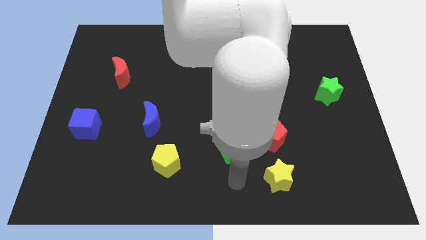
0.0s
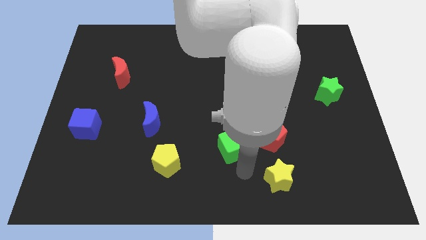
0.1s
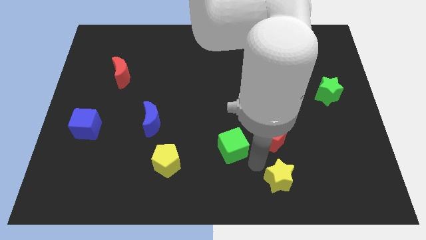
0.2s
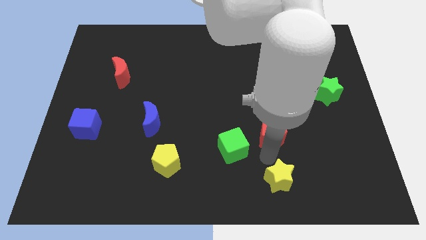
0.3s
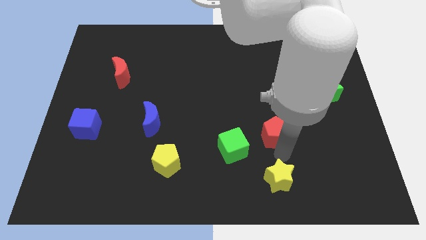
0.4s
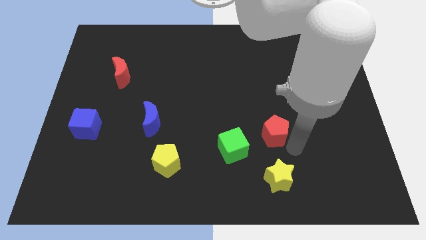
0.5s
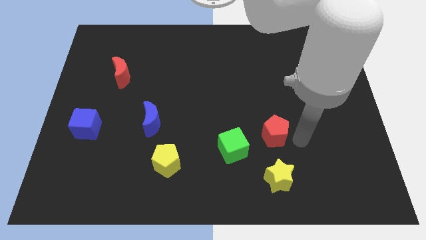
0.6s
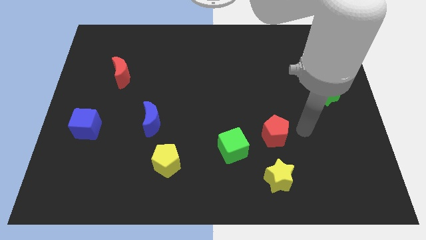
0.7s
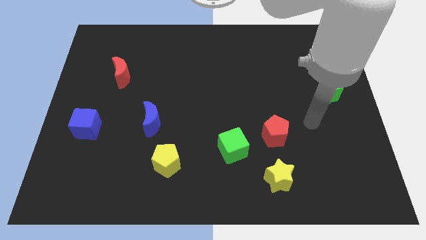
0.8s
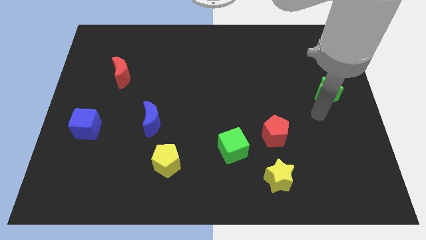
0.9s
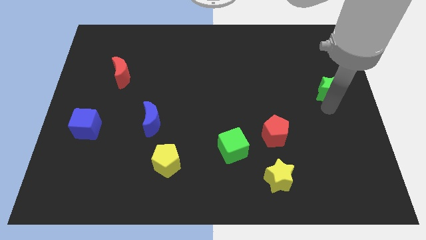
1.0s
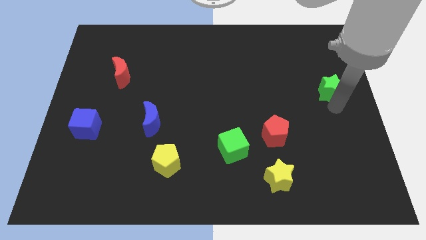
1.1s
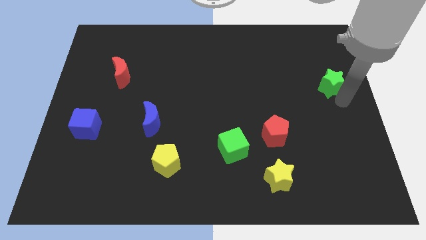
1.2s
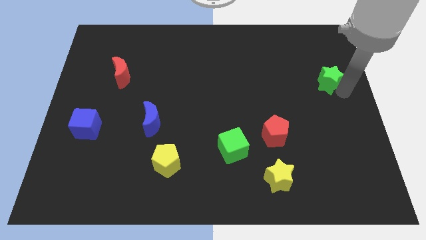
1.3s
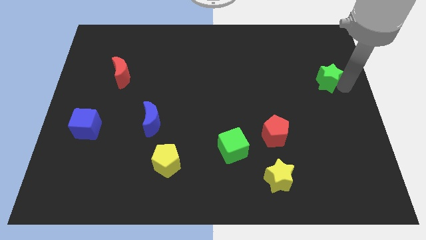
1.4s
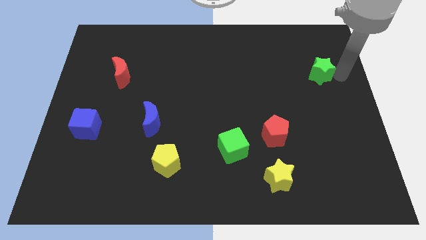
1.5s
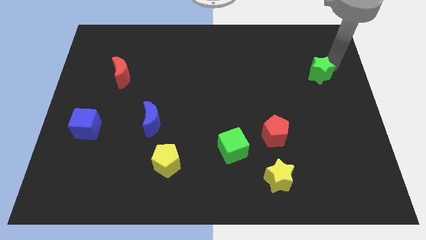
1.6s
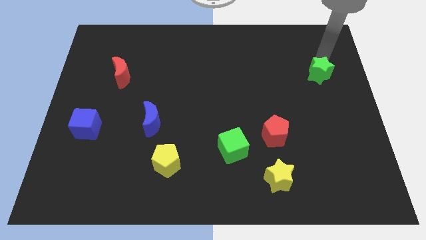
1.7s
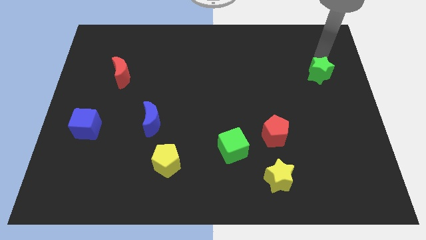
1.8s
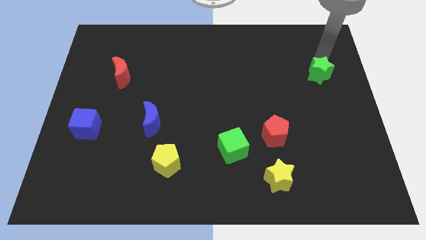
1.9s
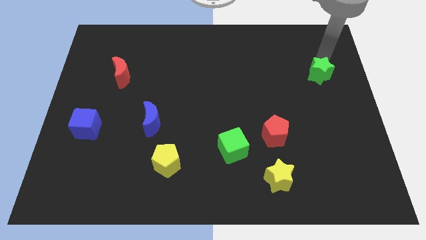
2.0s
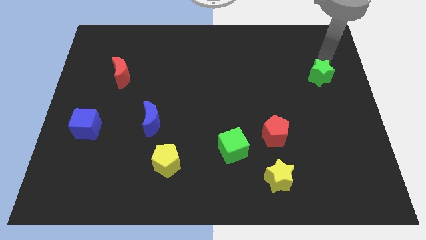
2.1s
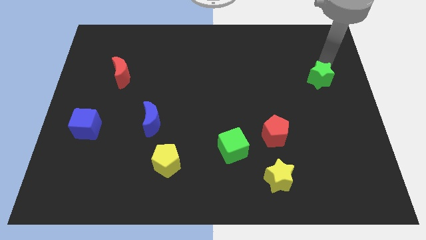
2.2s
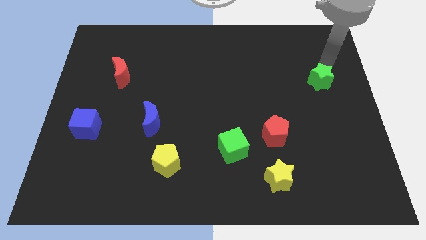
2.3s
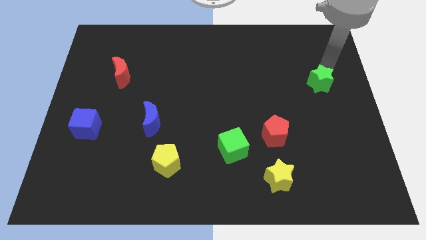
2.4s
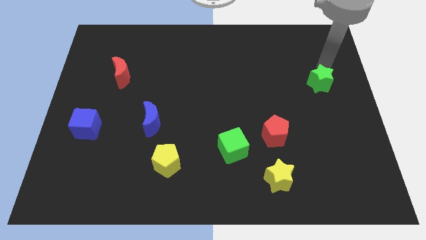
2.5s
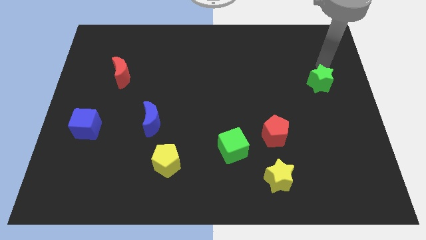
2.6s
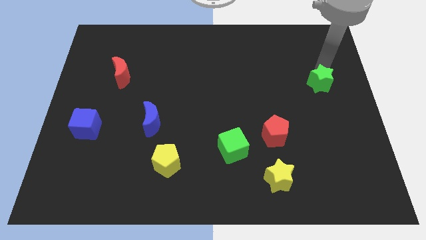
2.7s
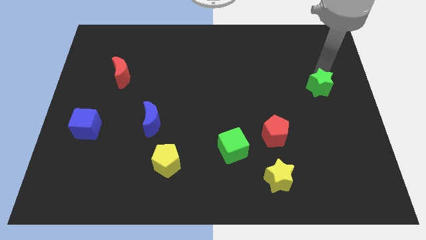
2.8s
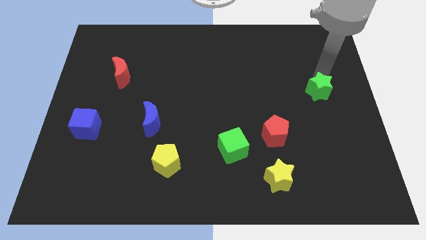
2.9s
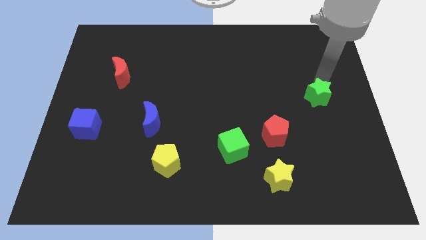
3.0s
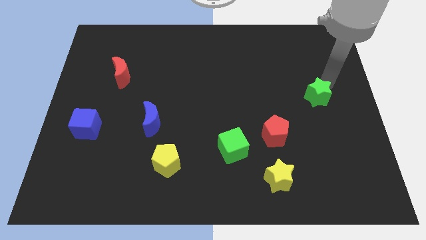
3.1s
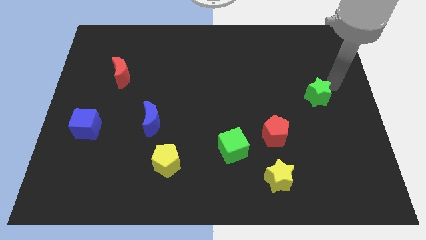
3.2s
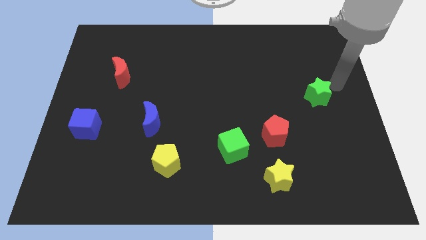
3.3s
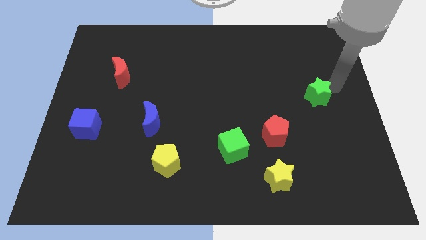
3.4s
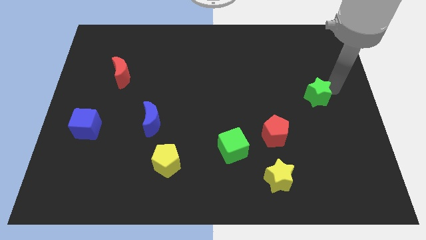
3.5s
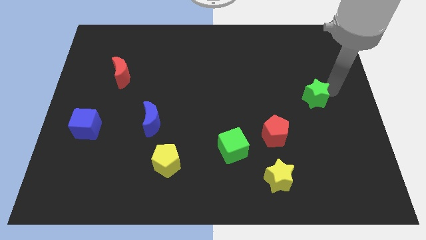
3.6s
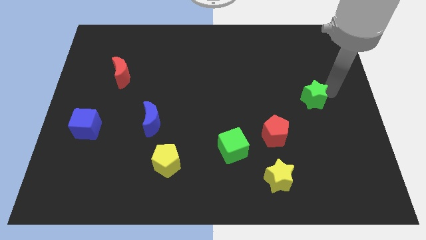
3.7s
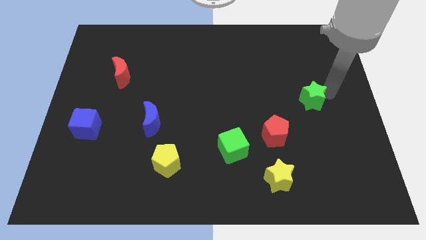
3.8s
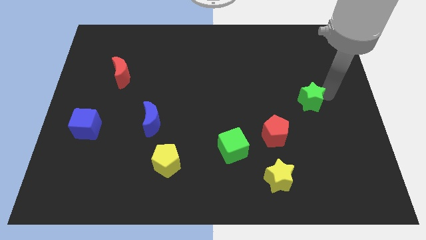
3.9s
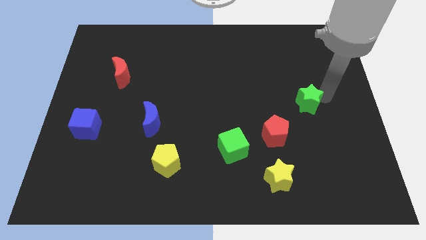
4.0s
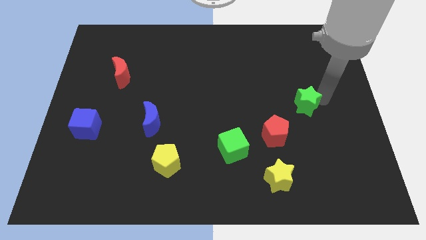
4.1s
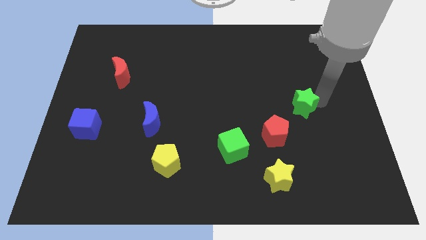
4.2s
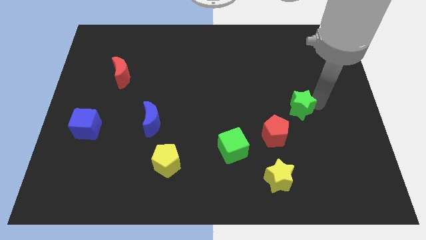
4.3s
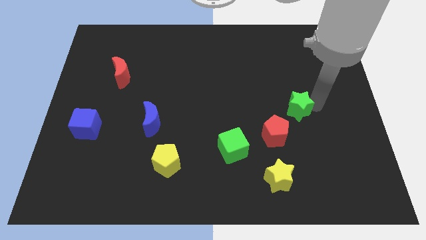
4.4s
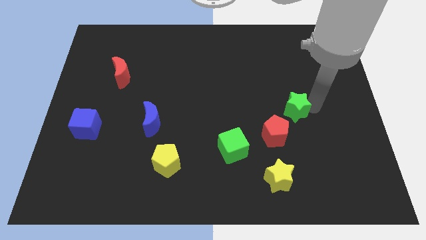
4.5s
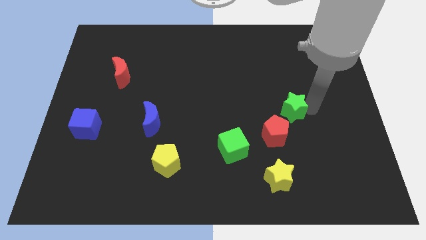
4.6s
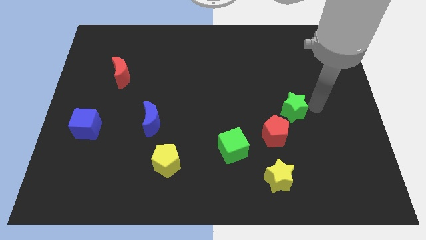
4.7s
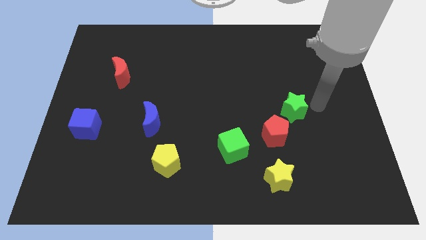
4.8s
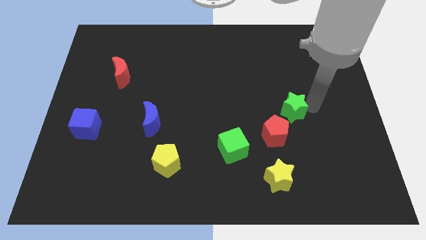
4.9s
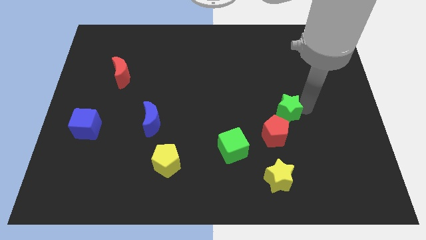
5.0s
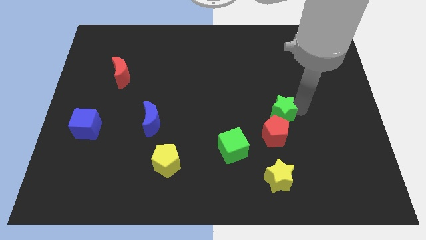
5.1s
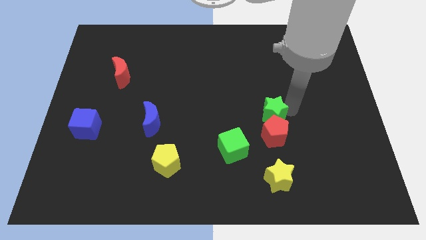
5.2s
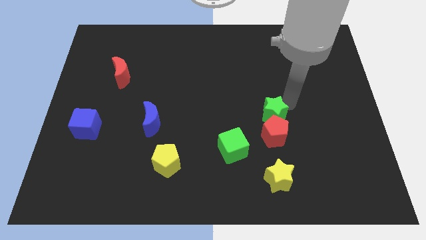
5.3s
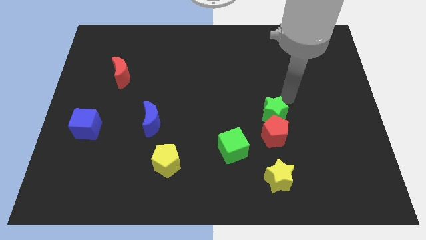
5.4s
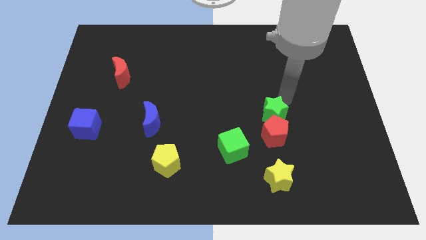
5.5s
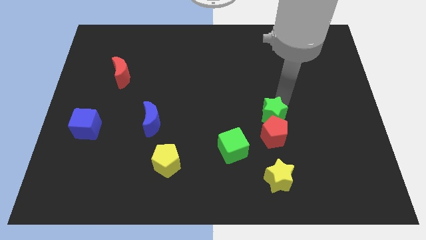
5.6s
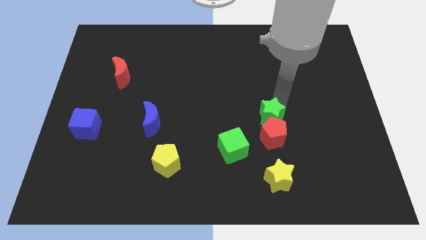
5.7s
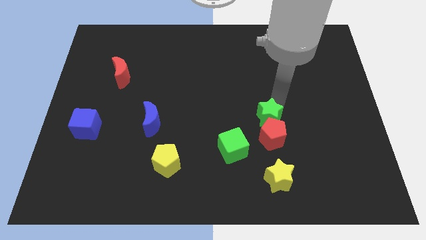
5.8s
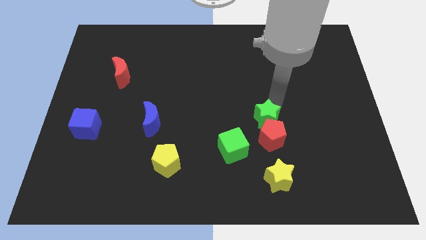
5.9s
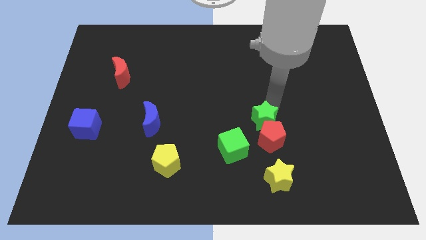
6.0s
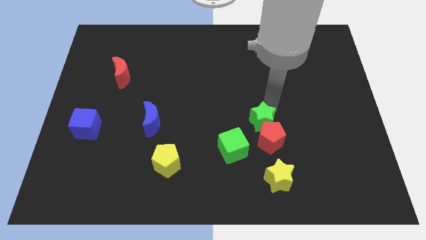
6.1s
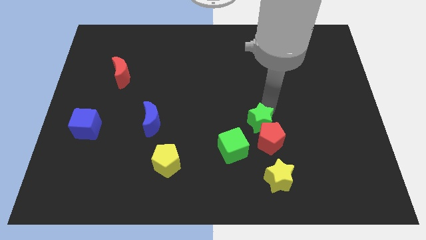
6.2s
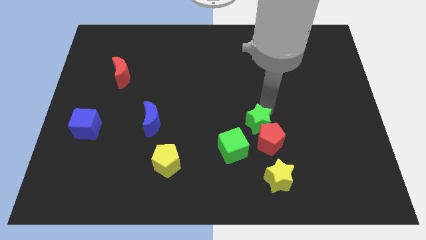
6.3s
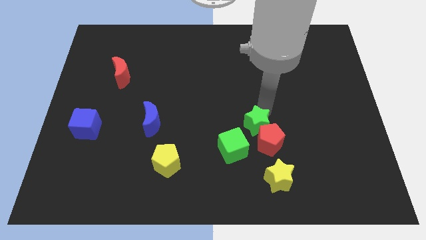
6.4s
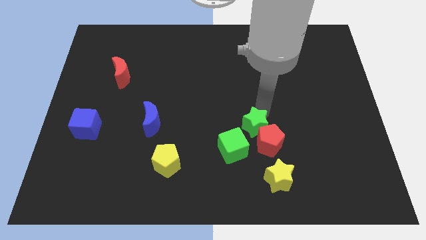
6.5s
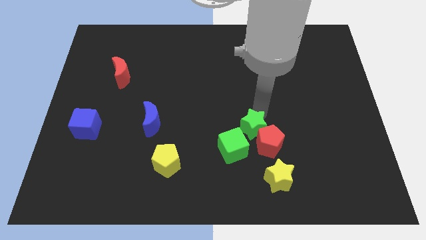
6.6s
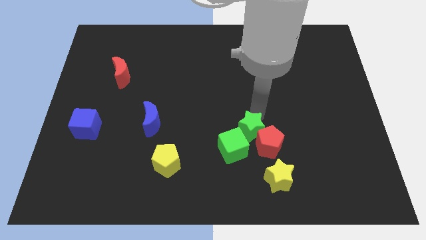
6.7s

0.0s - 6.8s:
move the green star downwards and to the left diagonally

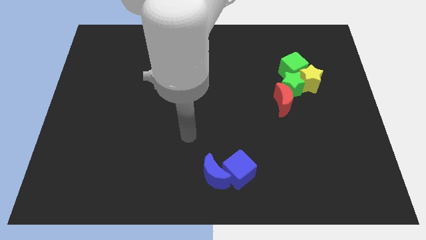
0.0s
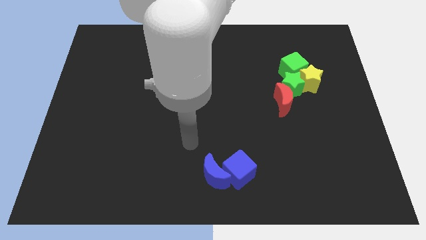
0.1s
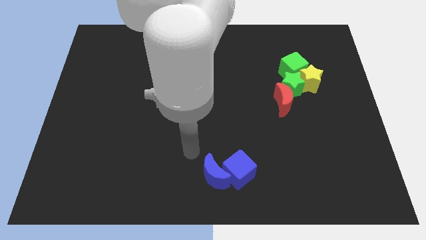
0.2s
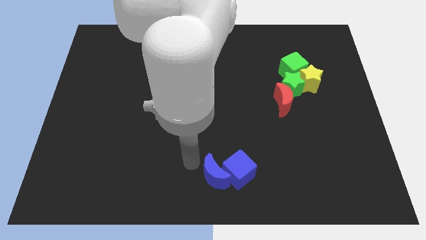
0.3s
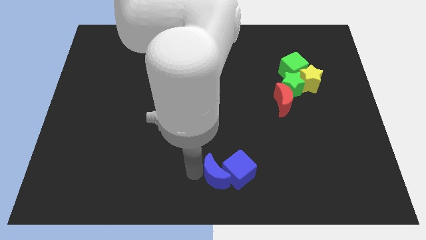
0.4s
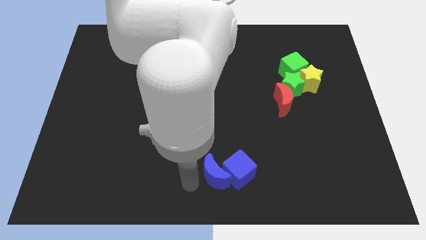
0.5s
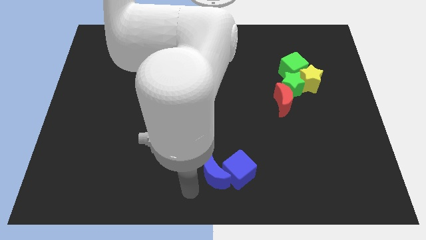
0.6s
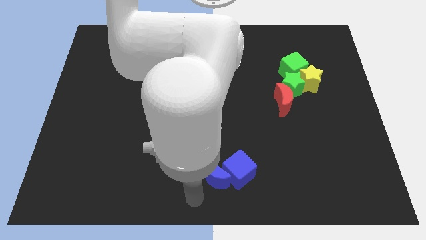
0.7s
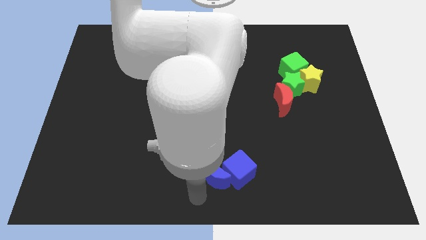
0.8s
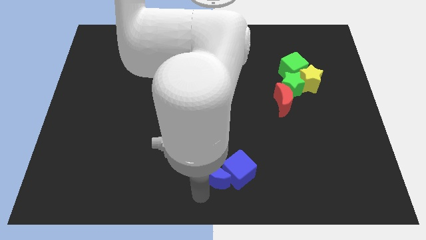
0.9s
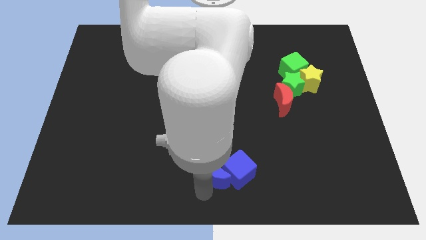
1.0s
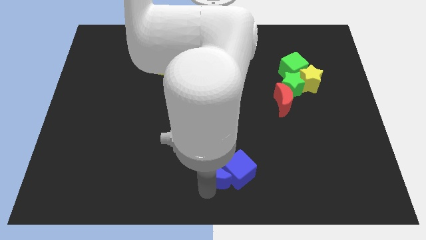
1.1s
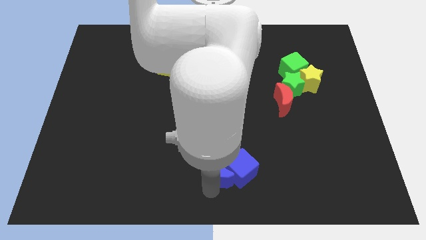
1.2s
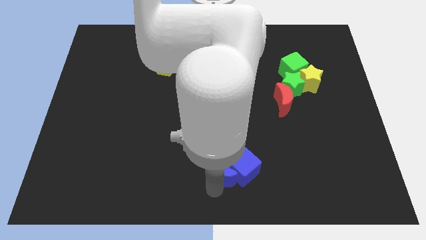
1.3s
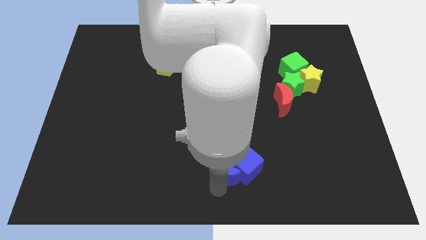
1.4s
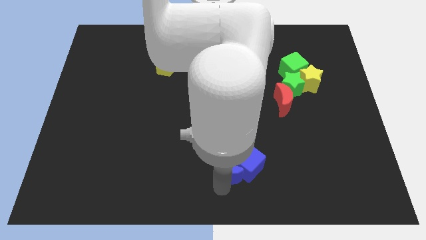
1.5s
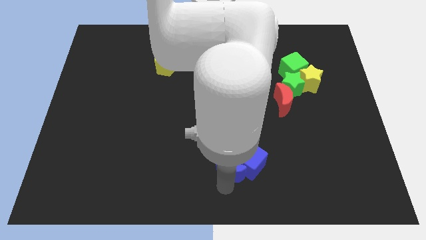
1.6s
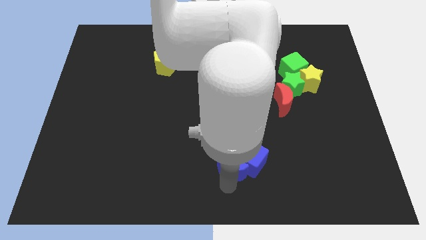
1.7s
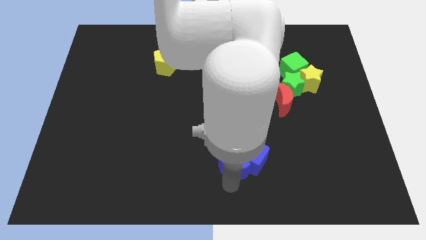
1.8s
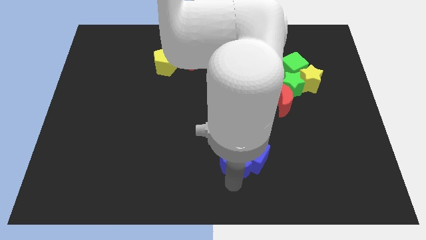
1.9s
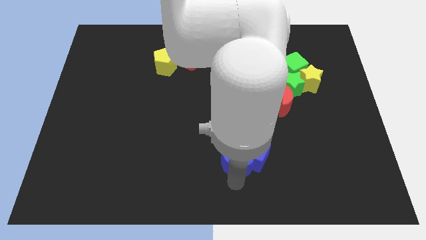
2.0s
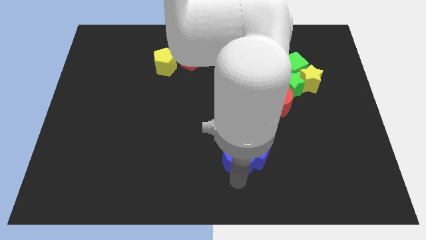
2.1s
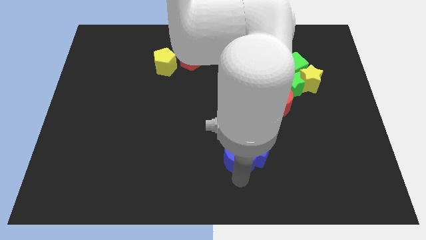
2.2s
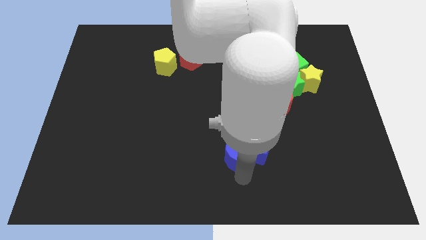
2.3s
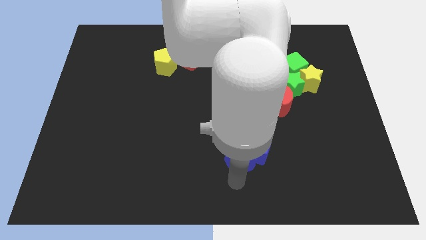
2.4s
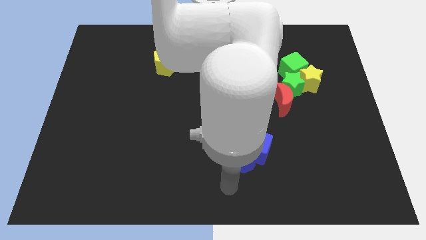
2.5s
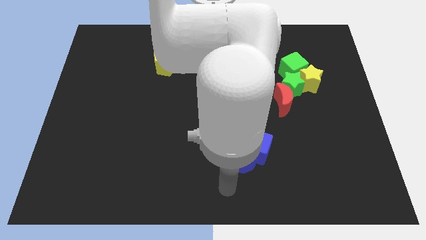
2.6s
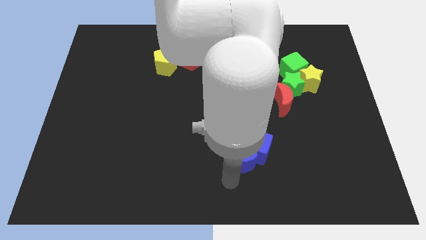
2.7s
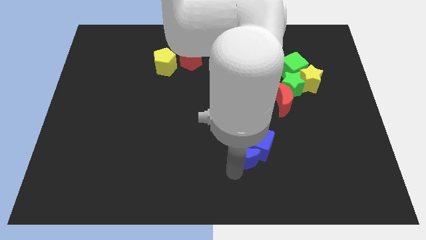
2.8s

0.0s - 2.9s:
slightly push the blue moon upwards and then right
